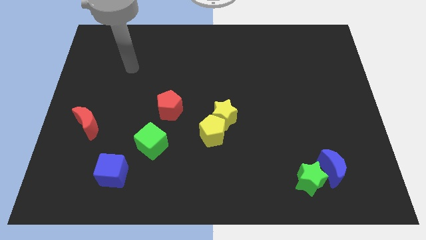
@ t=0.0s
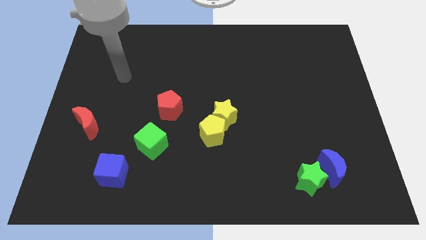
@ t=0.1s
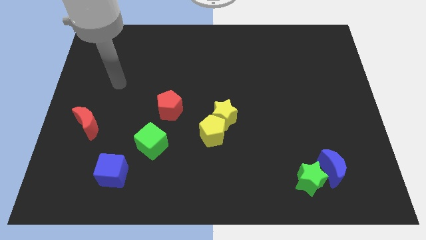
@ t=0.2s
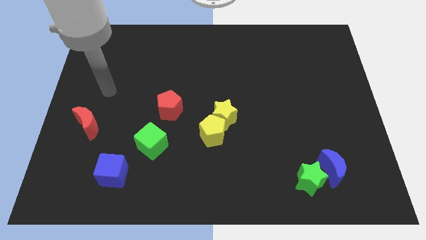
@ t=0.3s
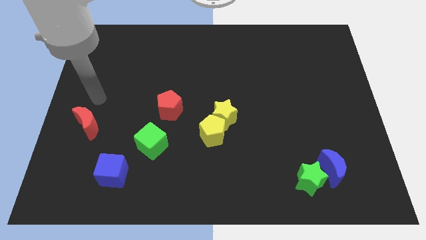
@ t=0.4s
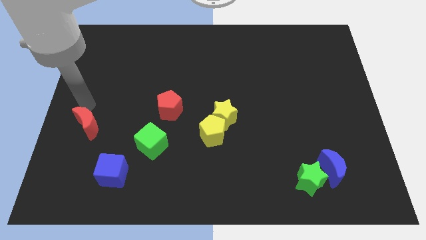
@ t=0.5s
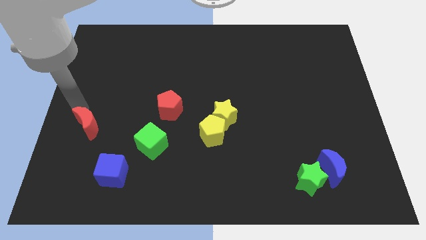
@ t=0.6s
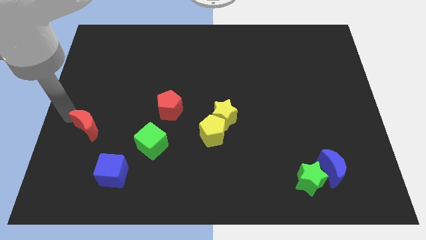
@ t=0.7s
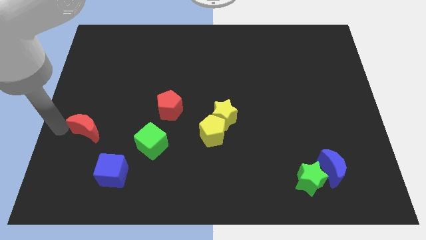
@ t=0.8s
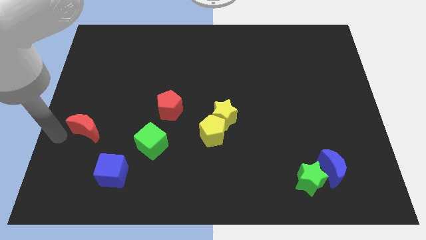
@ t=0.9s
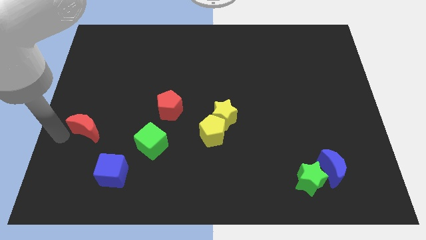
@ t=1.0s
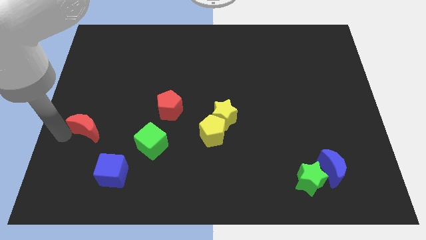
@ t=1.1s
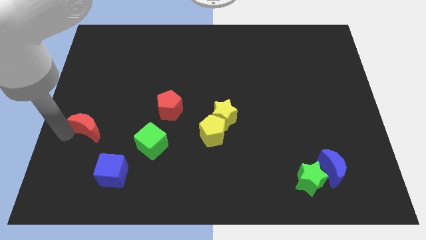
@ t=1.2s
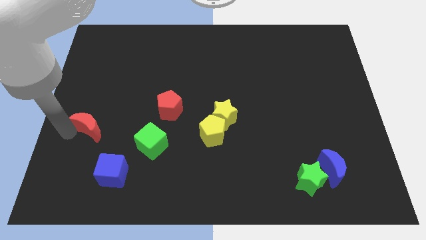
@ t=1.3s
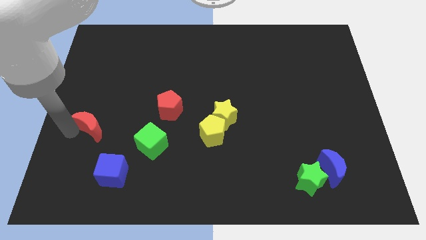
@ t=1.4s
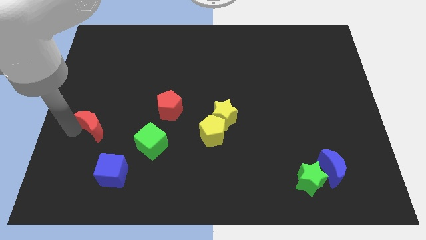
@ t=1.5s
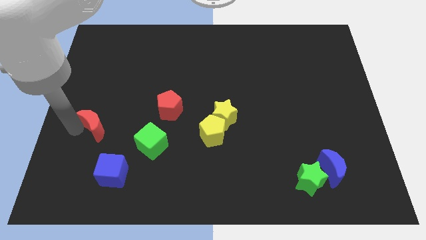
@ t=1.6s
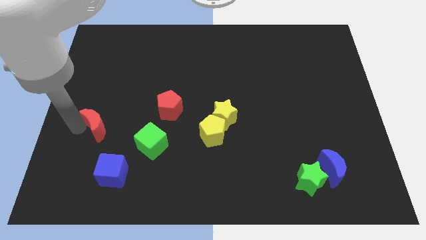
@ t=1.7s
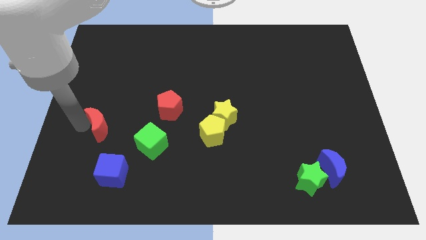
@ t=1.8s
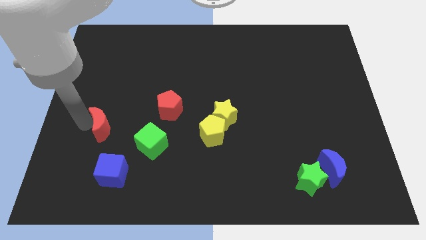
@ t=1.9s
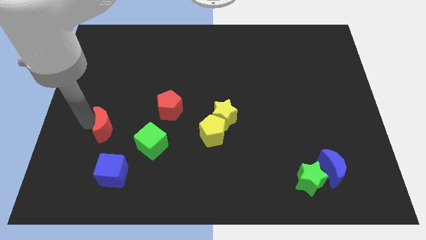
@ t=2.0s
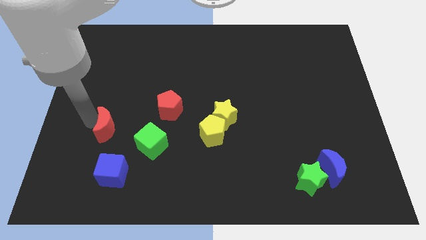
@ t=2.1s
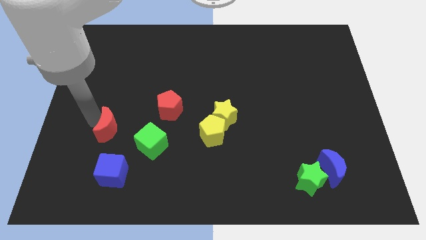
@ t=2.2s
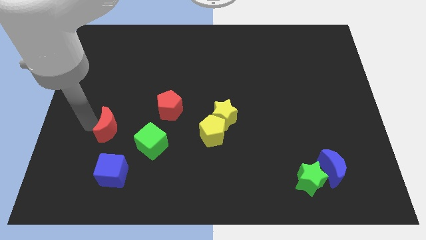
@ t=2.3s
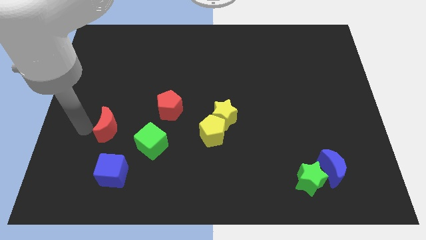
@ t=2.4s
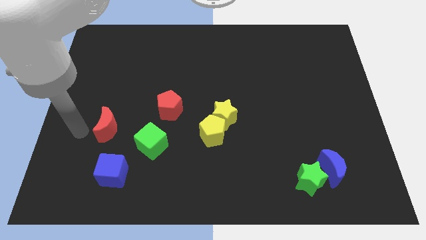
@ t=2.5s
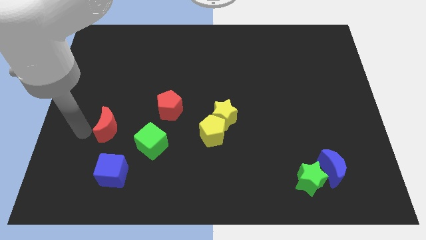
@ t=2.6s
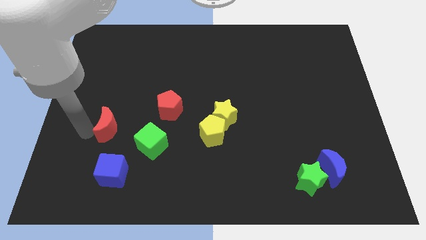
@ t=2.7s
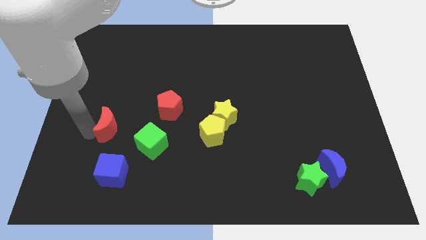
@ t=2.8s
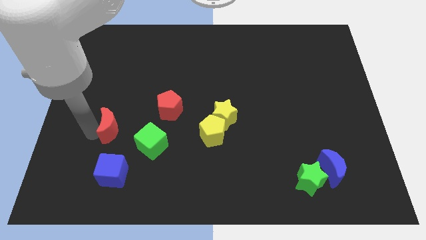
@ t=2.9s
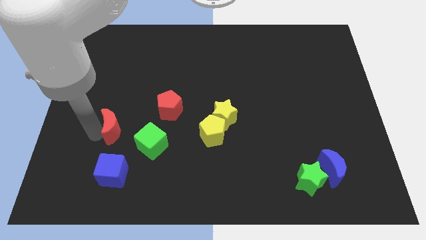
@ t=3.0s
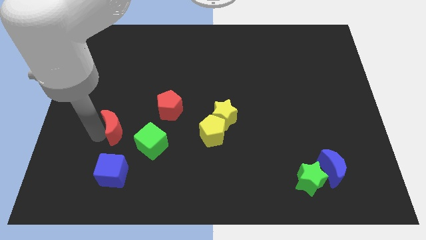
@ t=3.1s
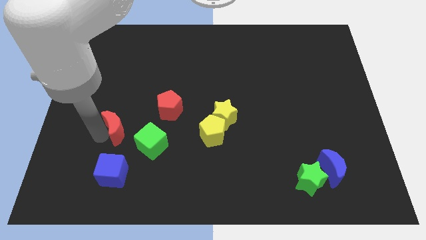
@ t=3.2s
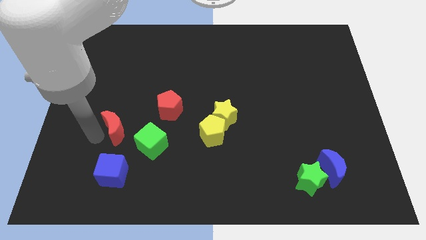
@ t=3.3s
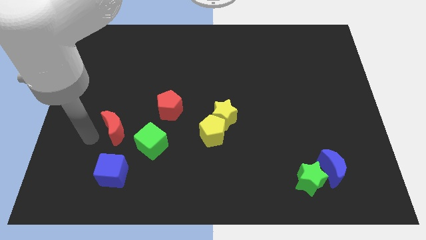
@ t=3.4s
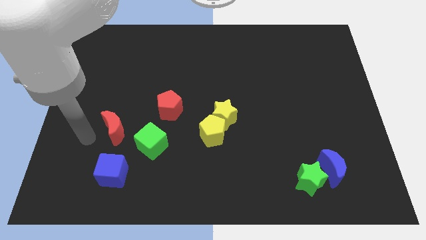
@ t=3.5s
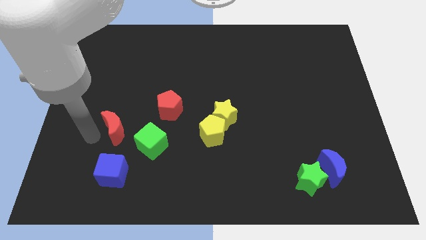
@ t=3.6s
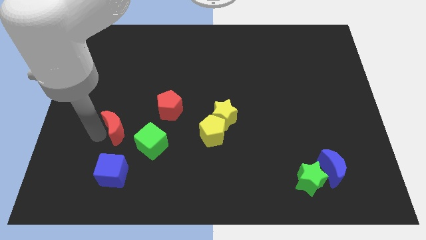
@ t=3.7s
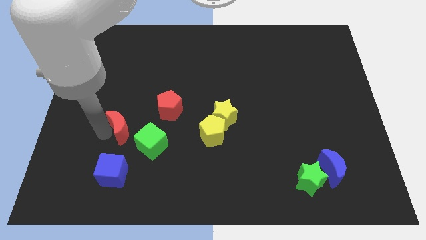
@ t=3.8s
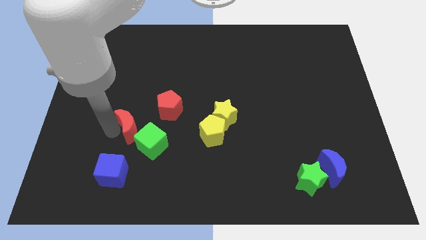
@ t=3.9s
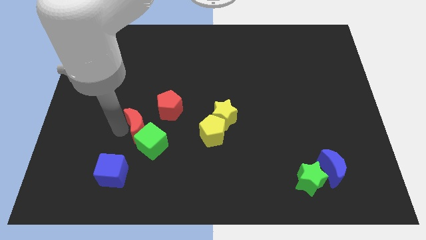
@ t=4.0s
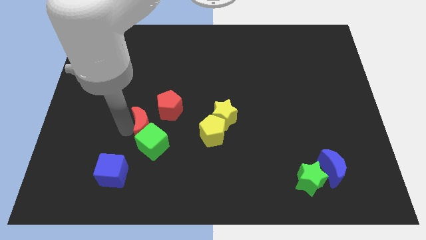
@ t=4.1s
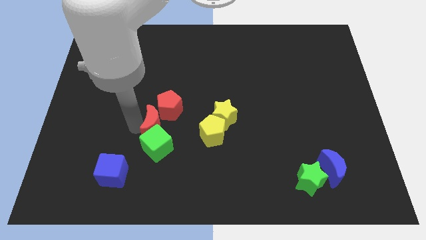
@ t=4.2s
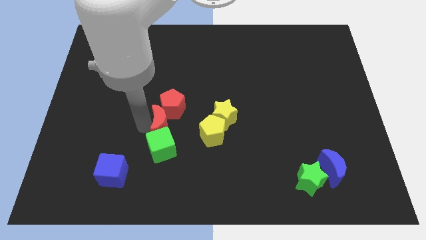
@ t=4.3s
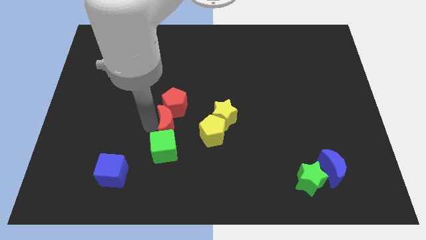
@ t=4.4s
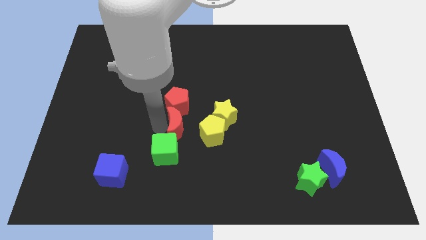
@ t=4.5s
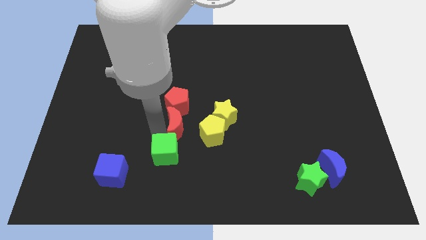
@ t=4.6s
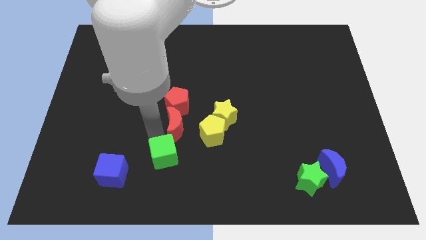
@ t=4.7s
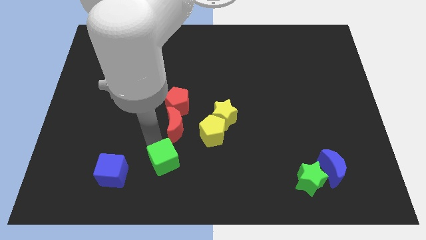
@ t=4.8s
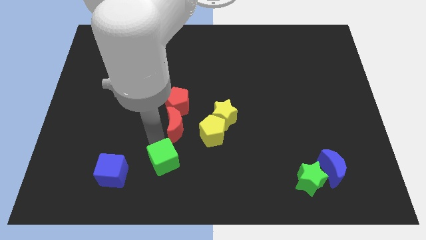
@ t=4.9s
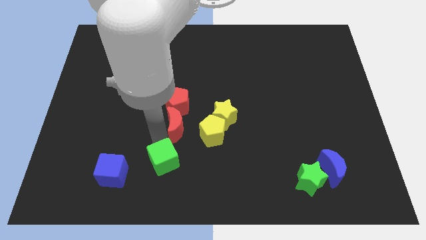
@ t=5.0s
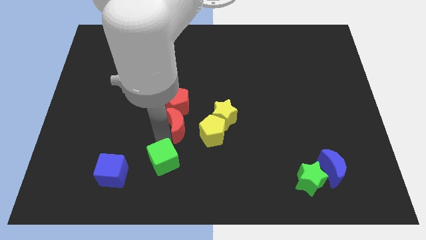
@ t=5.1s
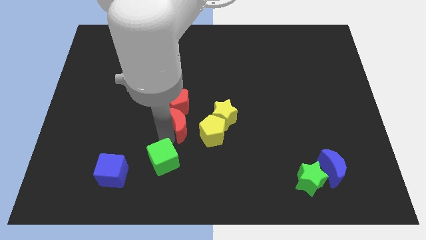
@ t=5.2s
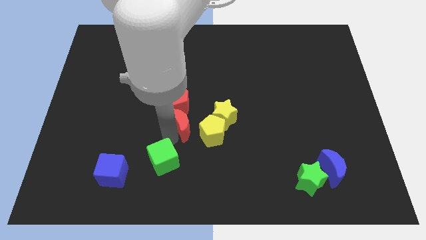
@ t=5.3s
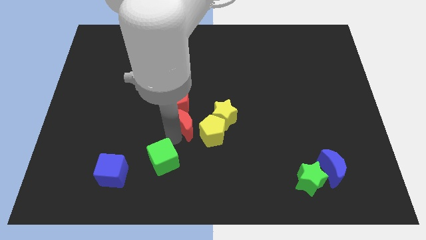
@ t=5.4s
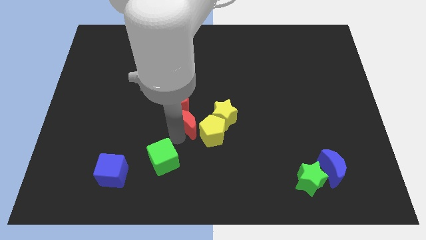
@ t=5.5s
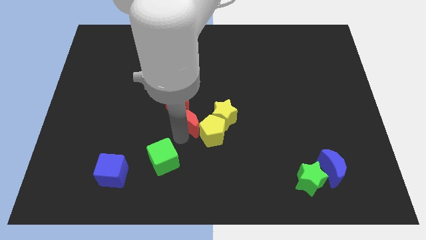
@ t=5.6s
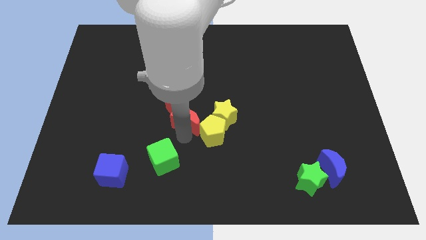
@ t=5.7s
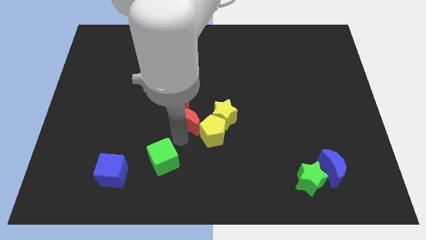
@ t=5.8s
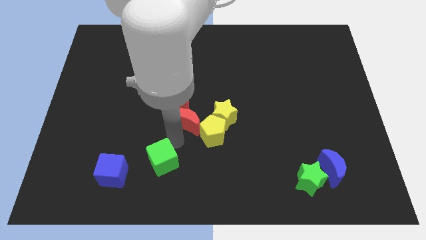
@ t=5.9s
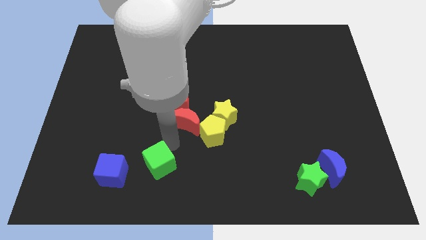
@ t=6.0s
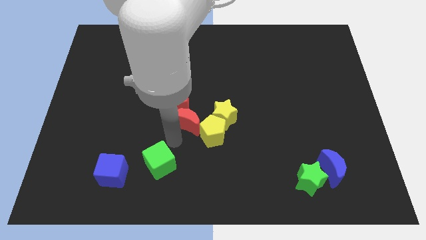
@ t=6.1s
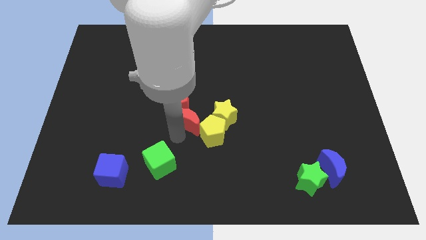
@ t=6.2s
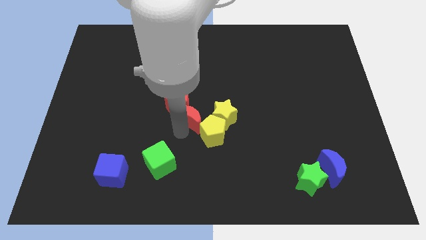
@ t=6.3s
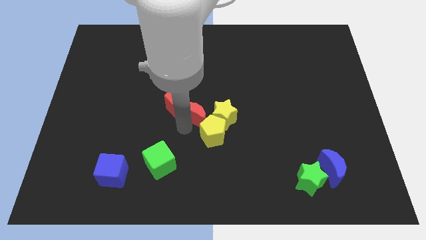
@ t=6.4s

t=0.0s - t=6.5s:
push the red moon to the top side of the yellow pentagon

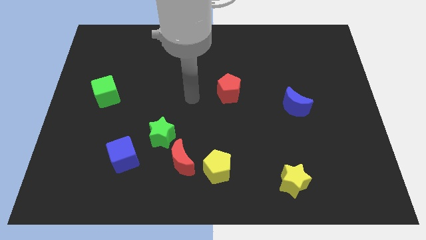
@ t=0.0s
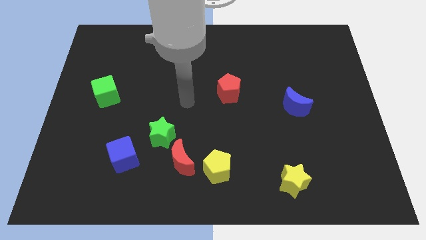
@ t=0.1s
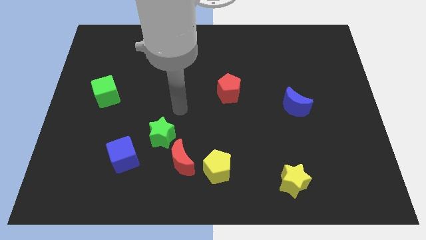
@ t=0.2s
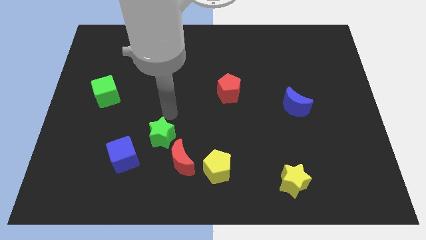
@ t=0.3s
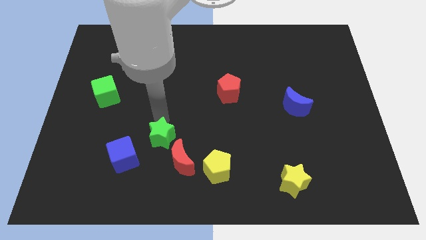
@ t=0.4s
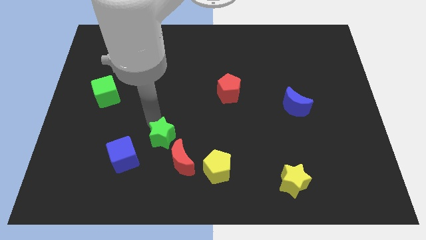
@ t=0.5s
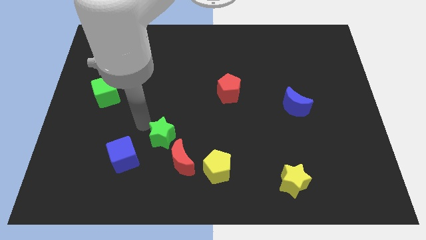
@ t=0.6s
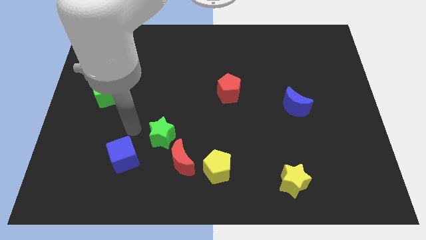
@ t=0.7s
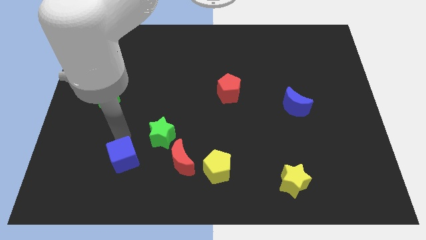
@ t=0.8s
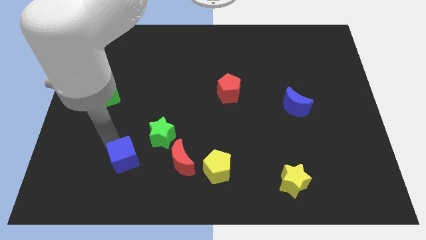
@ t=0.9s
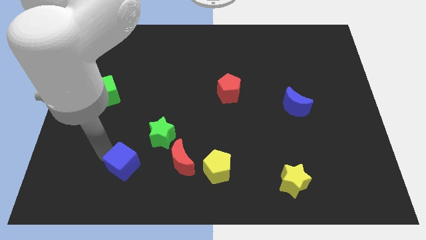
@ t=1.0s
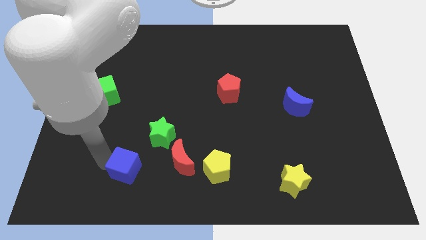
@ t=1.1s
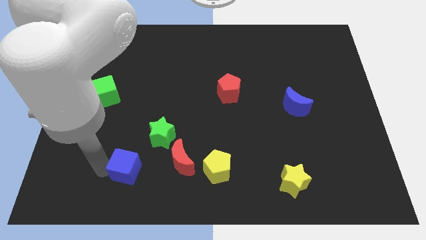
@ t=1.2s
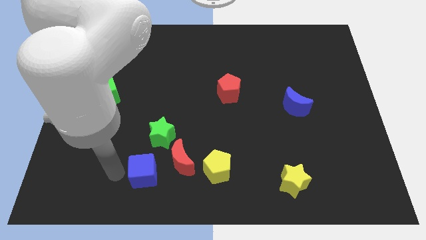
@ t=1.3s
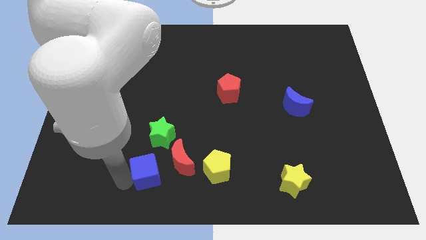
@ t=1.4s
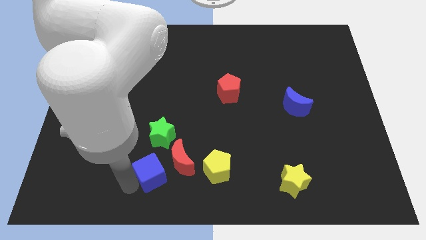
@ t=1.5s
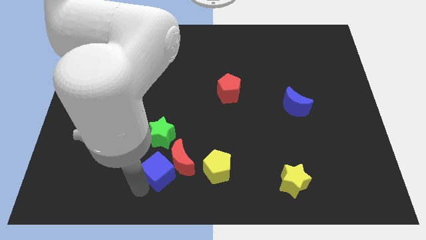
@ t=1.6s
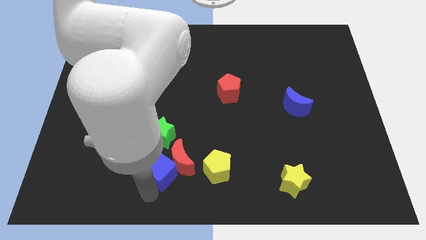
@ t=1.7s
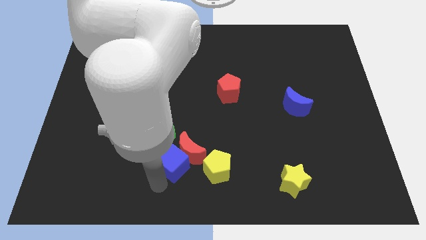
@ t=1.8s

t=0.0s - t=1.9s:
put the red moon to the right side of the green star
